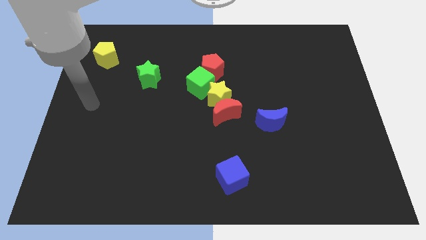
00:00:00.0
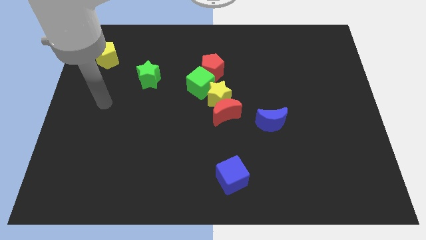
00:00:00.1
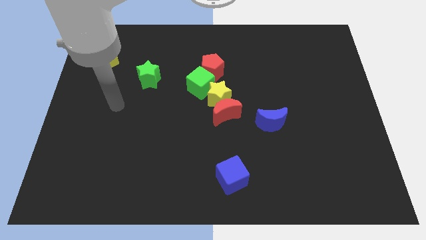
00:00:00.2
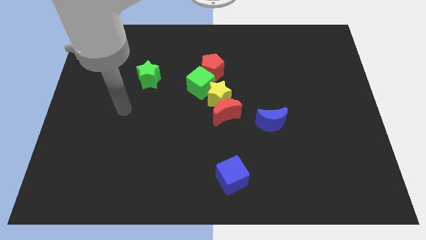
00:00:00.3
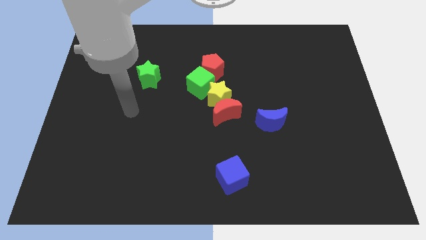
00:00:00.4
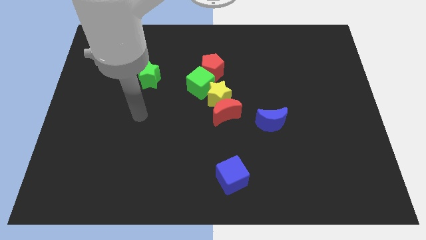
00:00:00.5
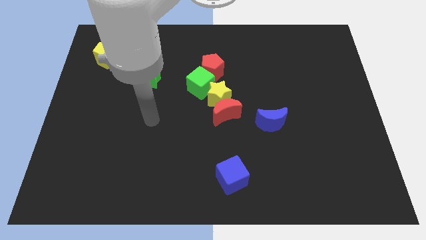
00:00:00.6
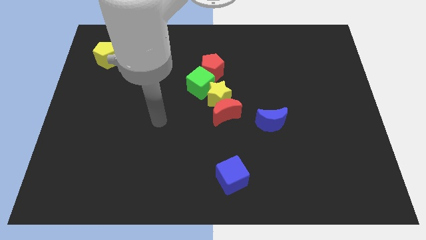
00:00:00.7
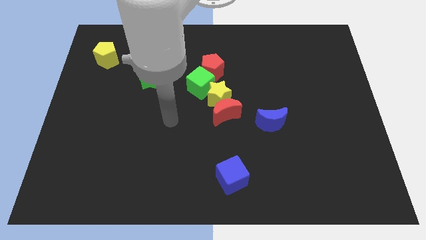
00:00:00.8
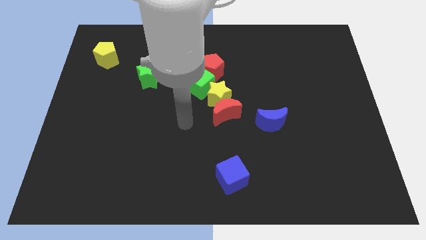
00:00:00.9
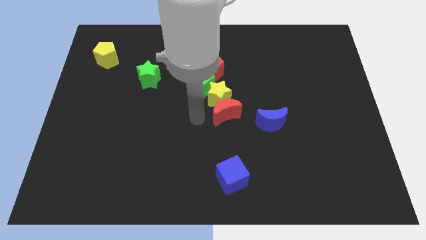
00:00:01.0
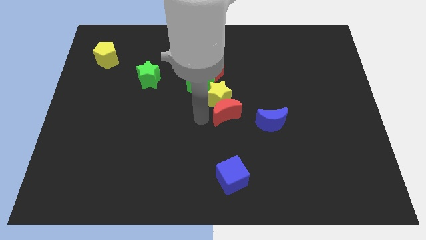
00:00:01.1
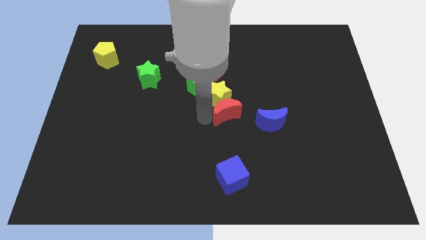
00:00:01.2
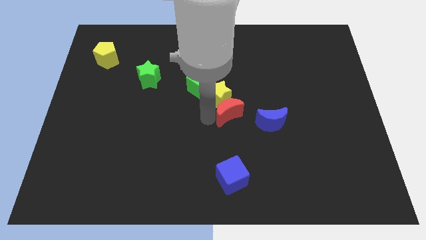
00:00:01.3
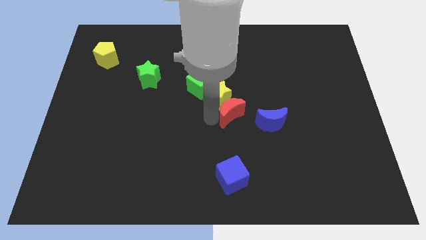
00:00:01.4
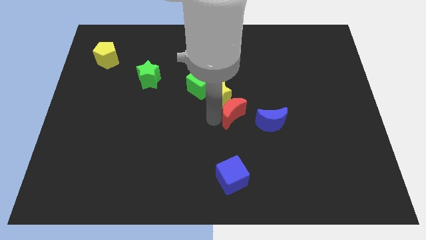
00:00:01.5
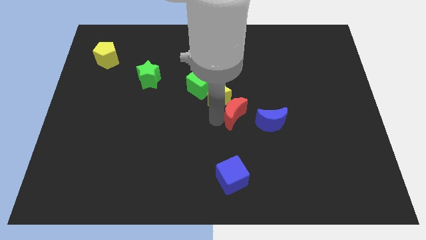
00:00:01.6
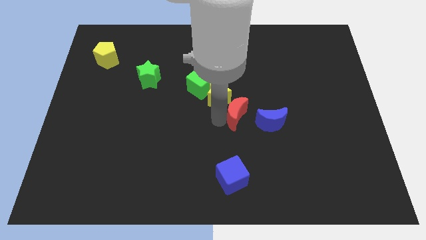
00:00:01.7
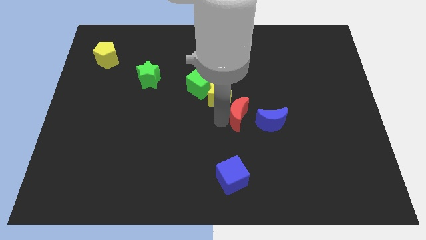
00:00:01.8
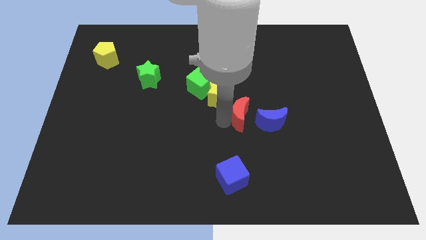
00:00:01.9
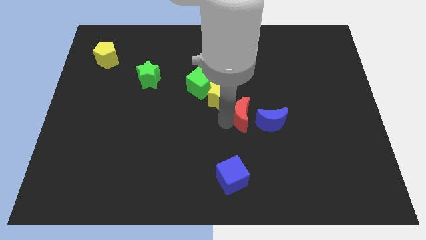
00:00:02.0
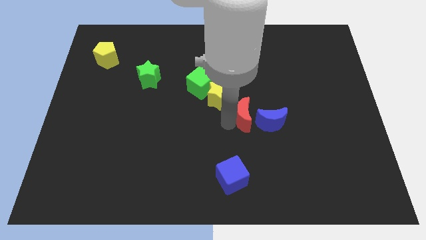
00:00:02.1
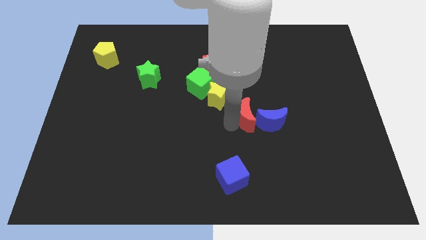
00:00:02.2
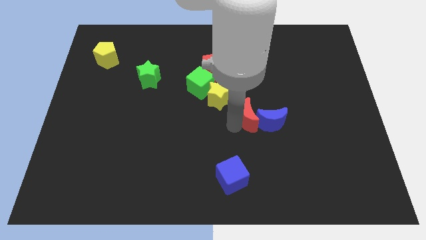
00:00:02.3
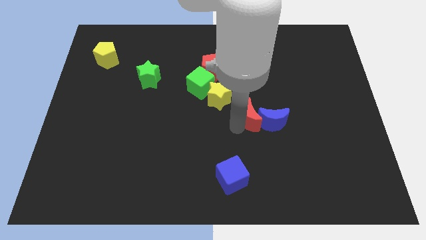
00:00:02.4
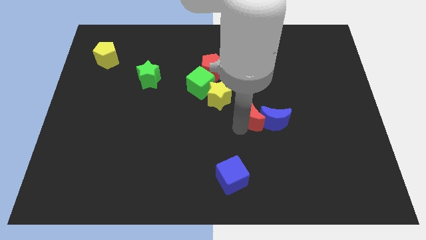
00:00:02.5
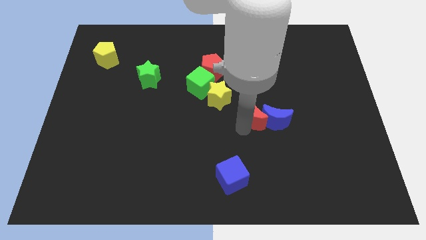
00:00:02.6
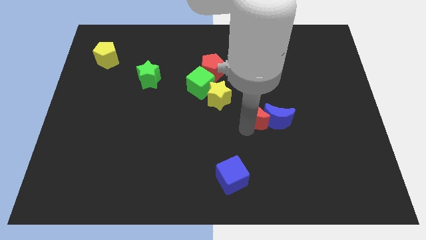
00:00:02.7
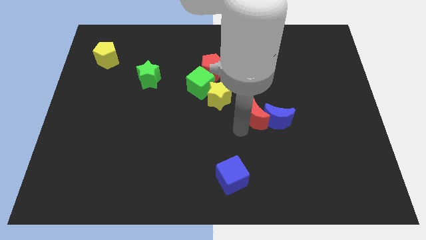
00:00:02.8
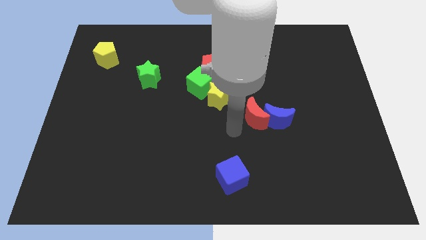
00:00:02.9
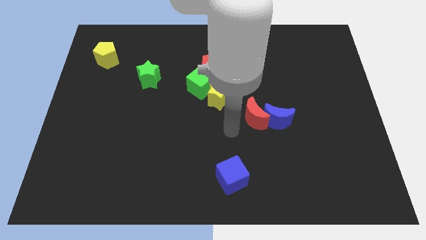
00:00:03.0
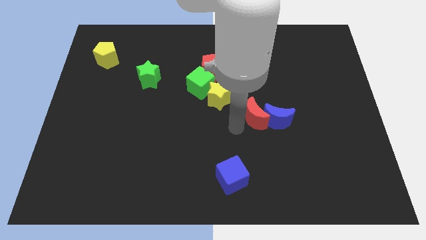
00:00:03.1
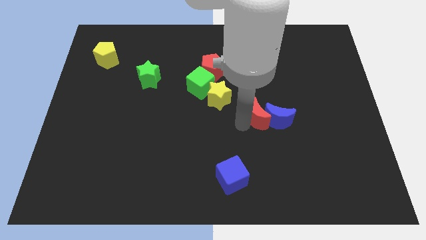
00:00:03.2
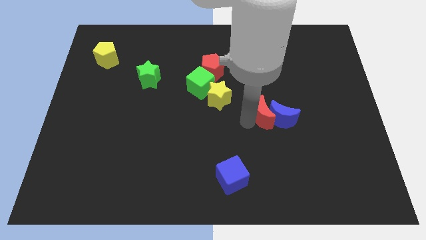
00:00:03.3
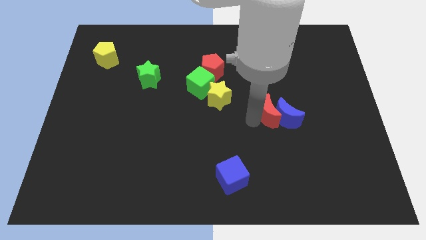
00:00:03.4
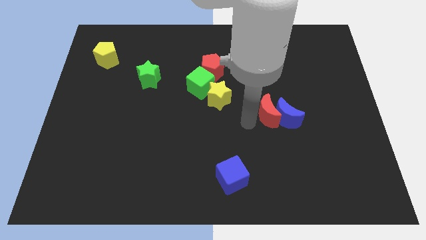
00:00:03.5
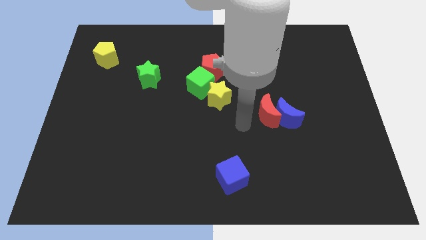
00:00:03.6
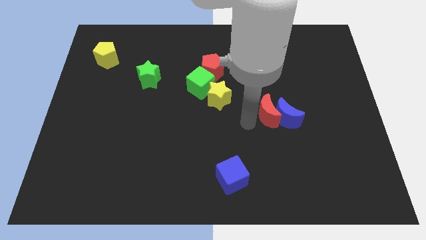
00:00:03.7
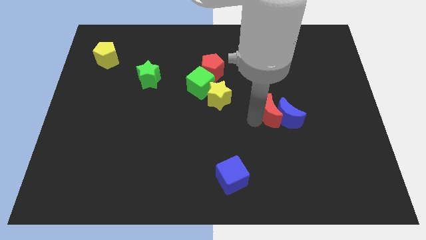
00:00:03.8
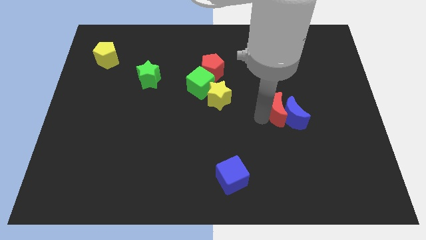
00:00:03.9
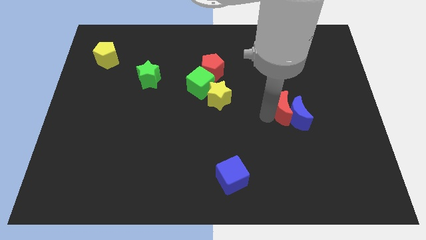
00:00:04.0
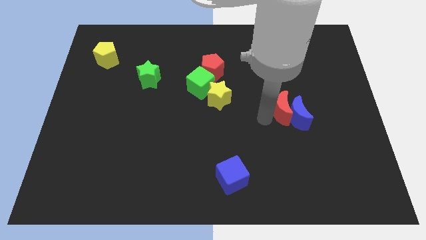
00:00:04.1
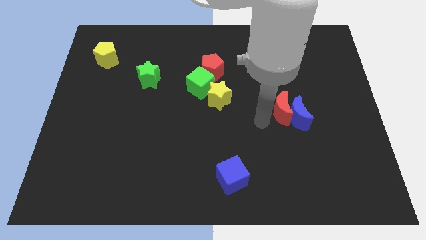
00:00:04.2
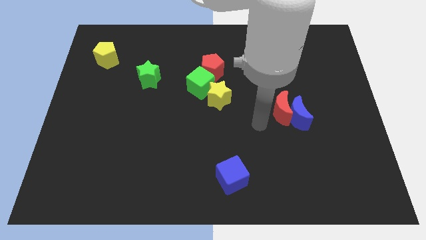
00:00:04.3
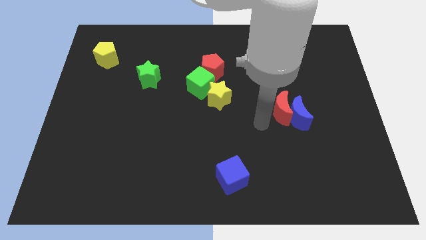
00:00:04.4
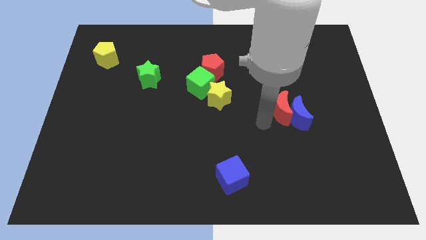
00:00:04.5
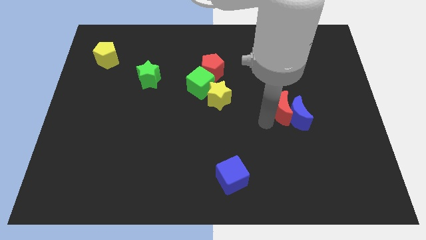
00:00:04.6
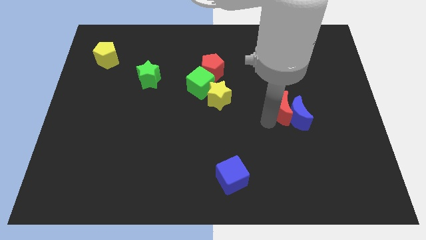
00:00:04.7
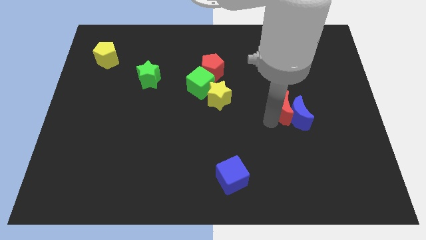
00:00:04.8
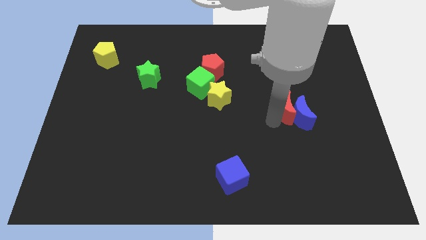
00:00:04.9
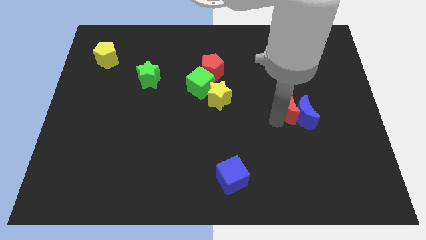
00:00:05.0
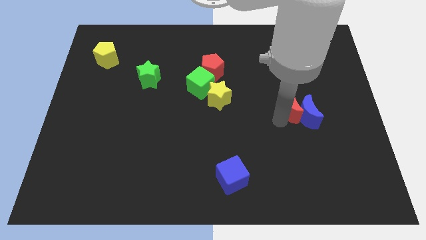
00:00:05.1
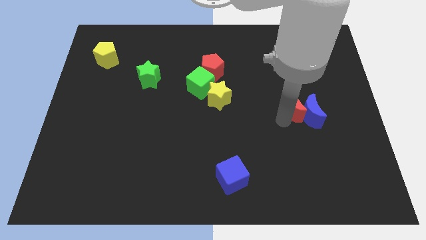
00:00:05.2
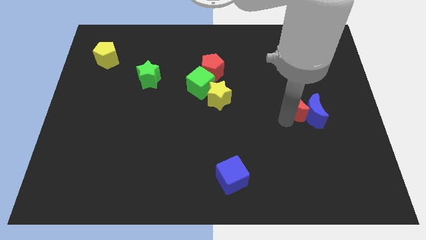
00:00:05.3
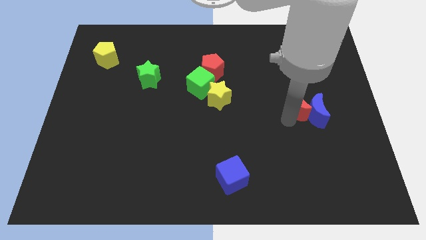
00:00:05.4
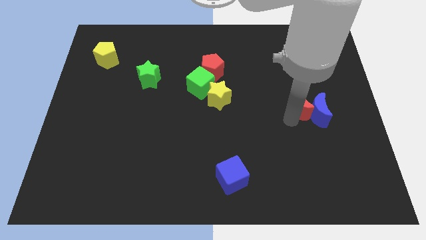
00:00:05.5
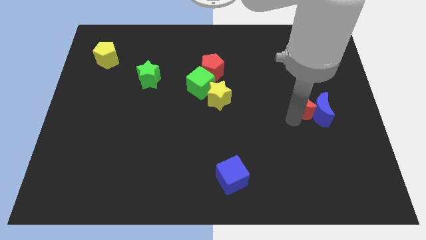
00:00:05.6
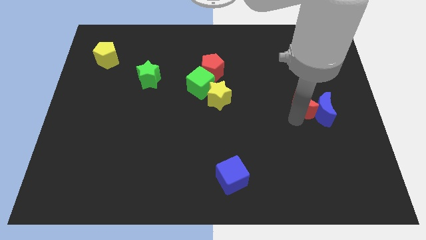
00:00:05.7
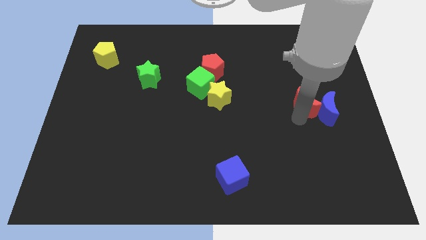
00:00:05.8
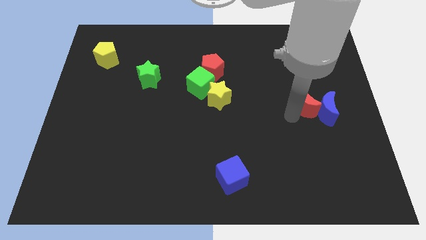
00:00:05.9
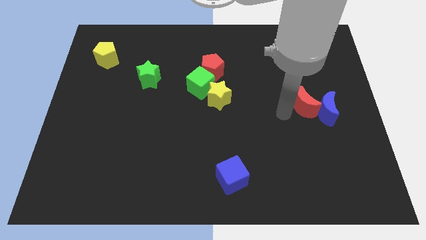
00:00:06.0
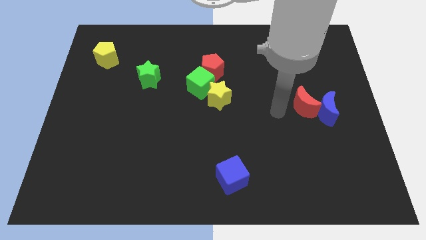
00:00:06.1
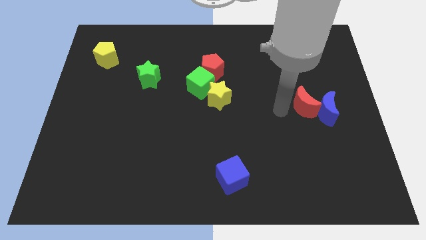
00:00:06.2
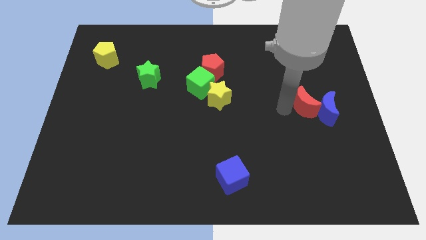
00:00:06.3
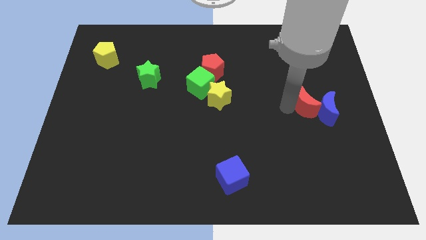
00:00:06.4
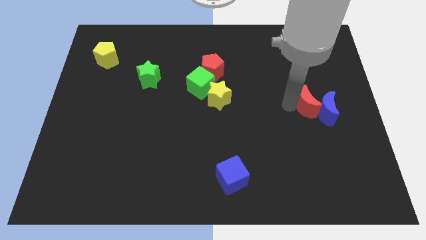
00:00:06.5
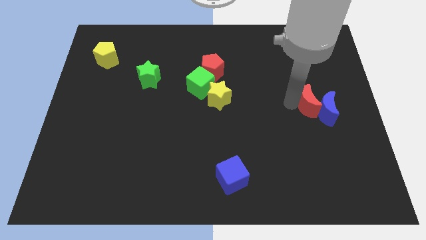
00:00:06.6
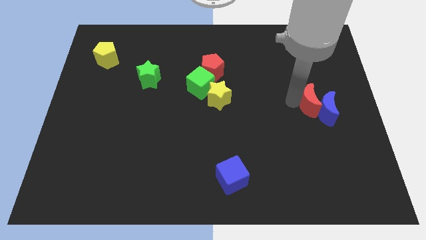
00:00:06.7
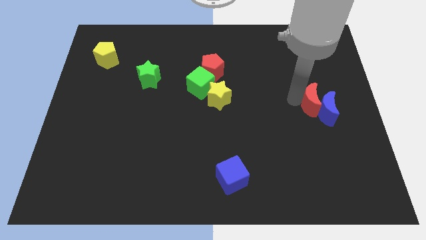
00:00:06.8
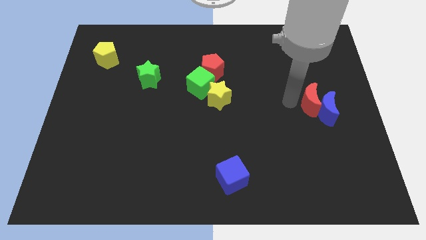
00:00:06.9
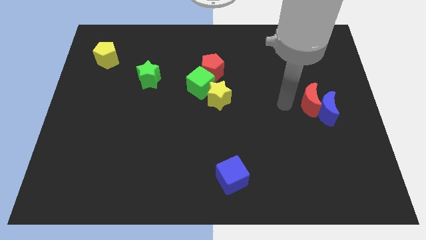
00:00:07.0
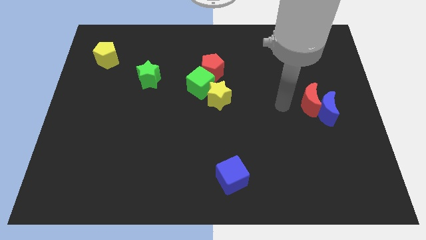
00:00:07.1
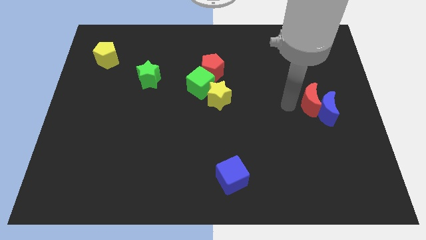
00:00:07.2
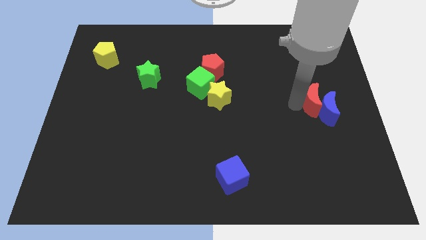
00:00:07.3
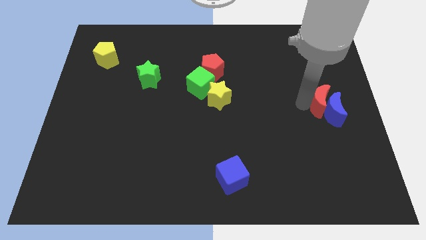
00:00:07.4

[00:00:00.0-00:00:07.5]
put the red moon to the right side of the board
